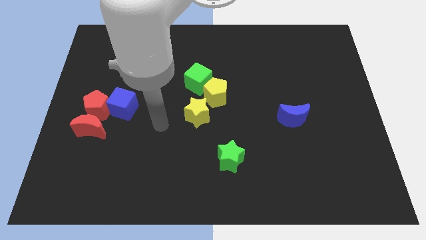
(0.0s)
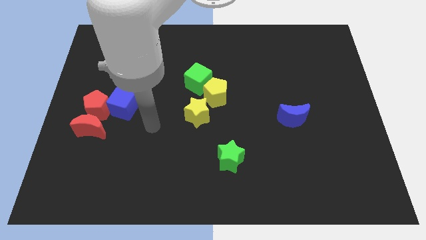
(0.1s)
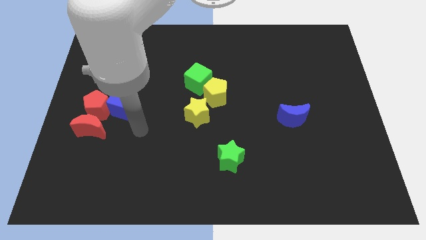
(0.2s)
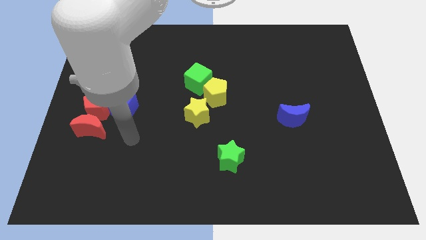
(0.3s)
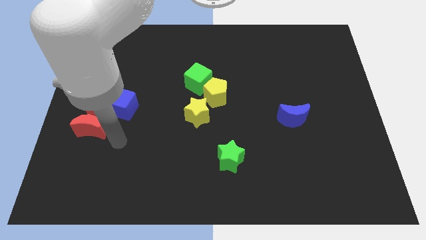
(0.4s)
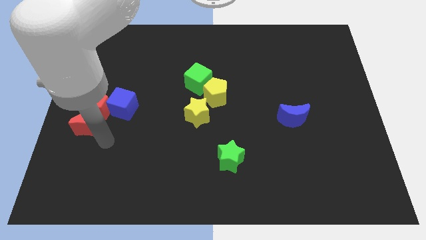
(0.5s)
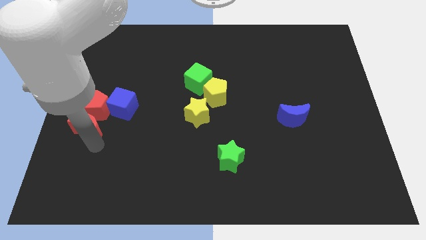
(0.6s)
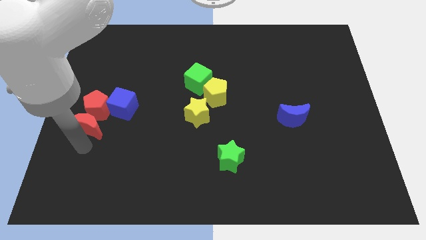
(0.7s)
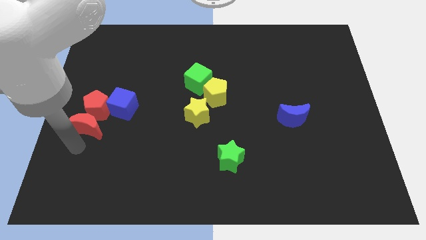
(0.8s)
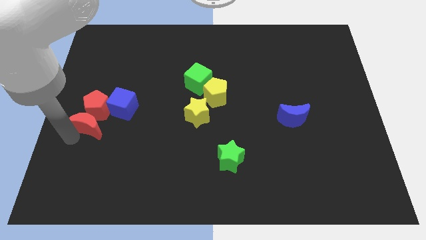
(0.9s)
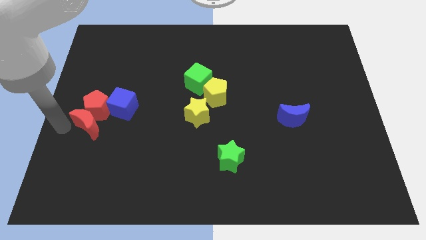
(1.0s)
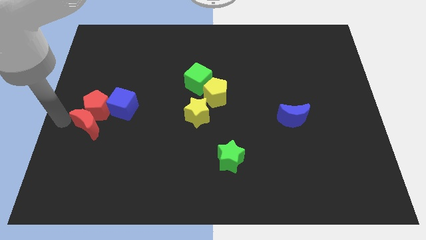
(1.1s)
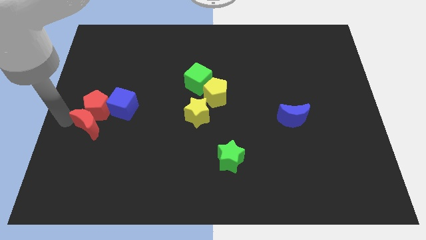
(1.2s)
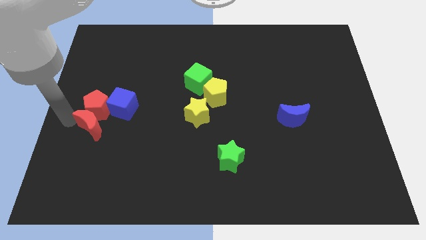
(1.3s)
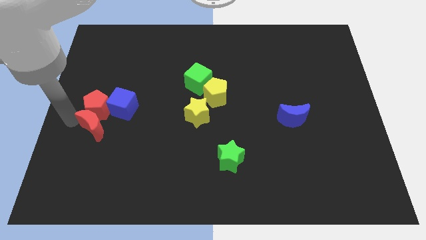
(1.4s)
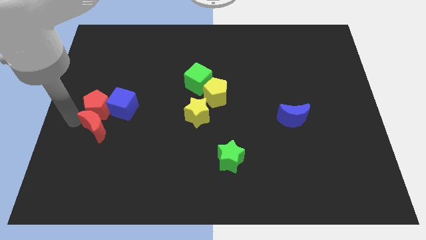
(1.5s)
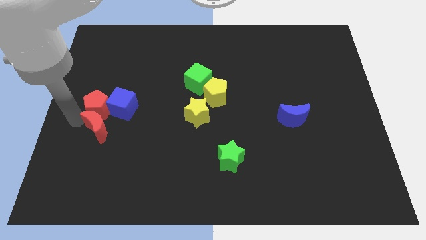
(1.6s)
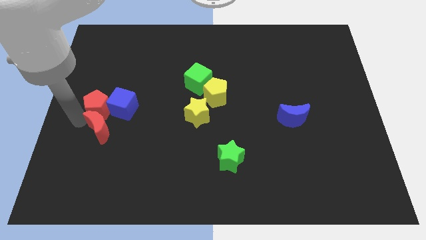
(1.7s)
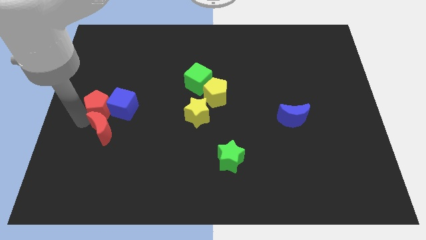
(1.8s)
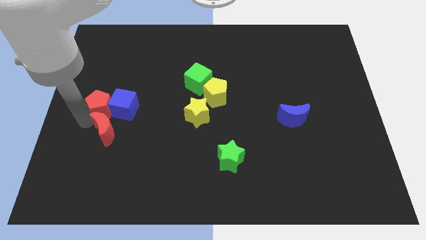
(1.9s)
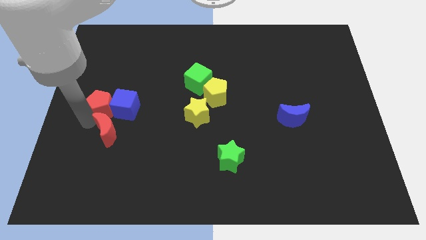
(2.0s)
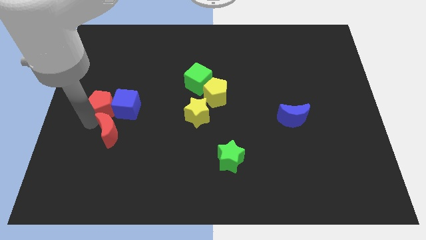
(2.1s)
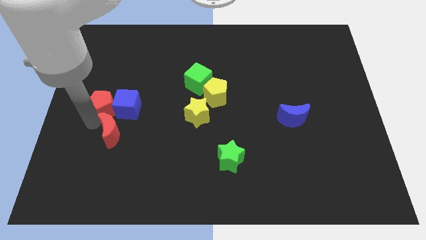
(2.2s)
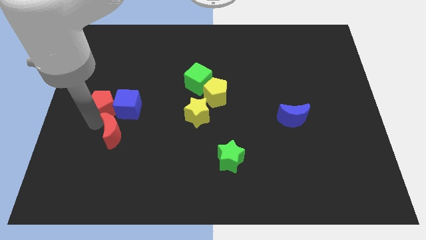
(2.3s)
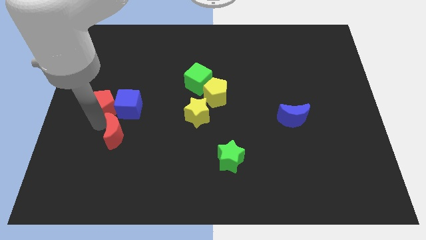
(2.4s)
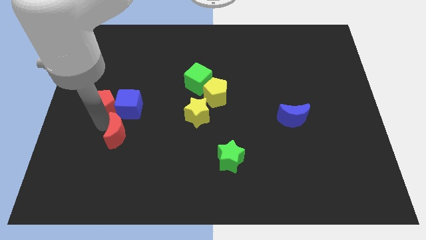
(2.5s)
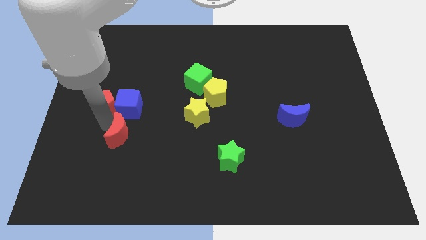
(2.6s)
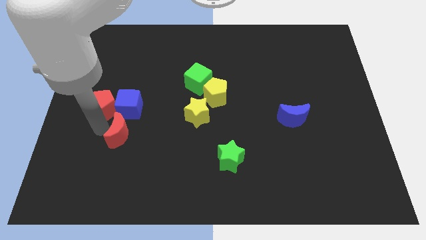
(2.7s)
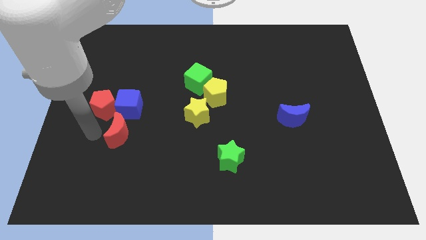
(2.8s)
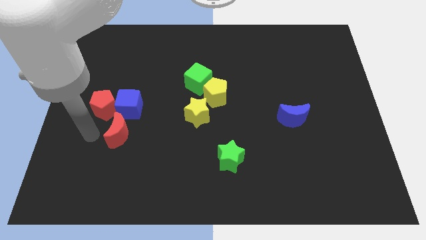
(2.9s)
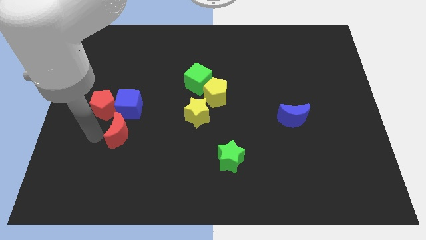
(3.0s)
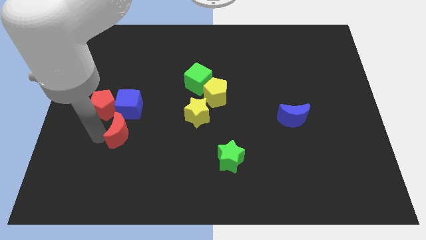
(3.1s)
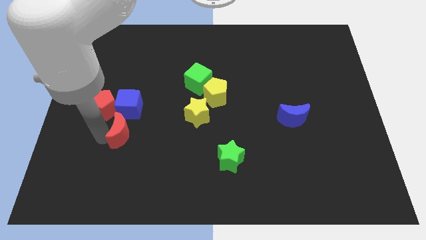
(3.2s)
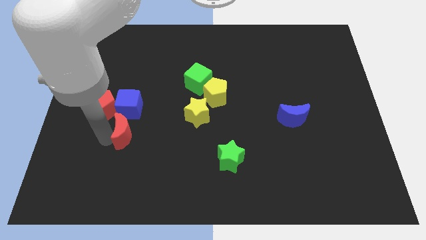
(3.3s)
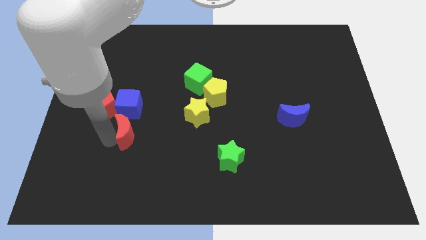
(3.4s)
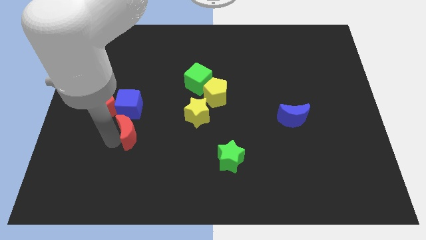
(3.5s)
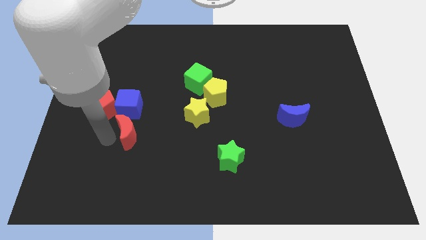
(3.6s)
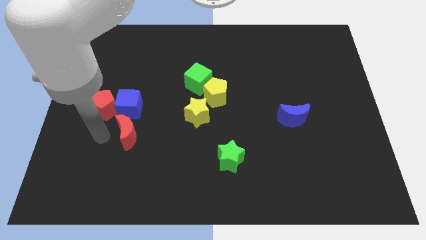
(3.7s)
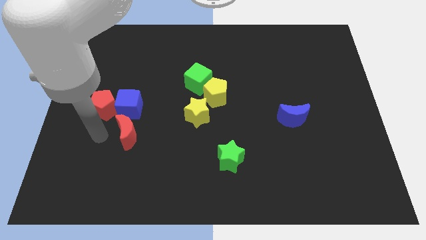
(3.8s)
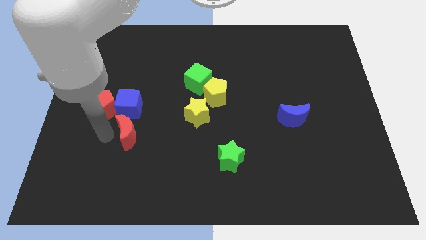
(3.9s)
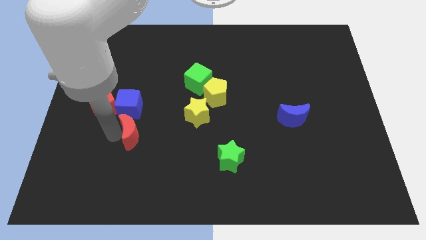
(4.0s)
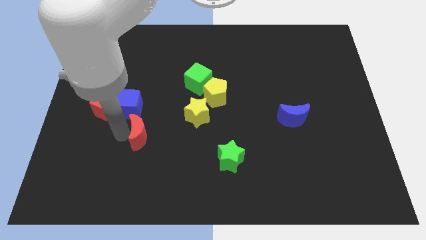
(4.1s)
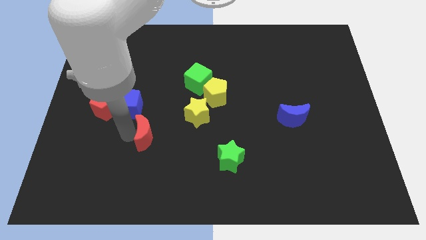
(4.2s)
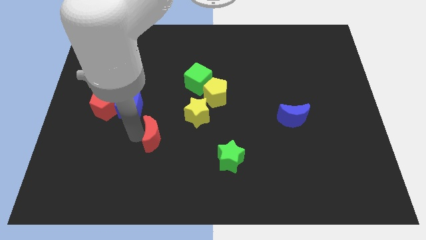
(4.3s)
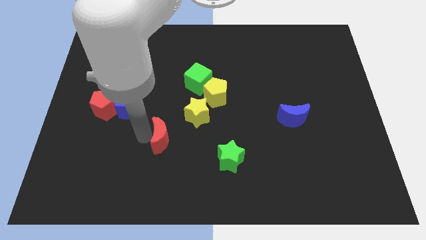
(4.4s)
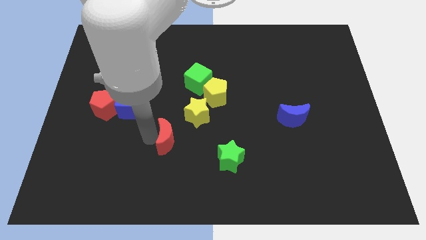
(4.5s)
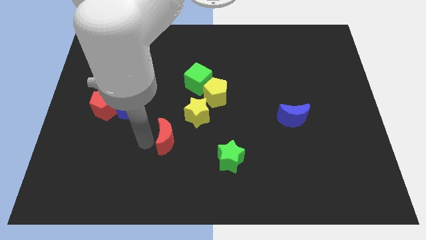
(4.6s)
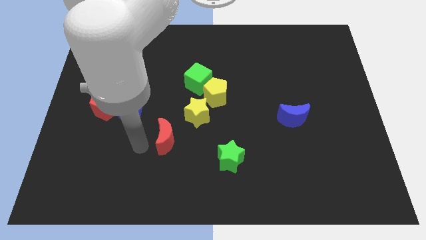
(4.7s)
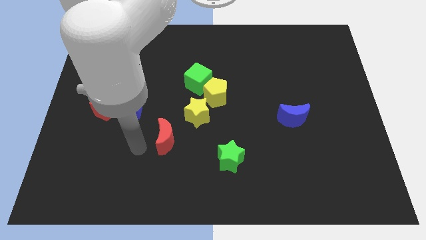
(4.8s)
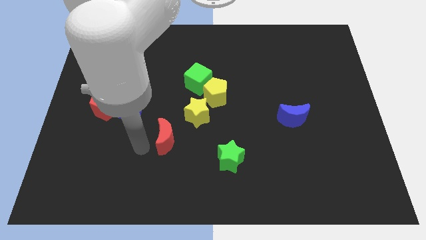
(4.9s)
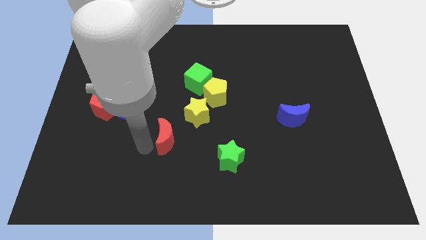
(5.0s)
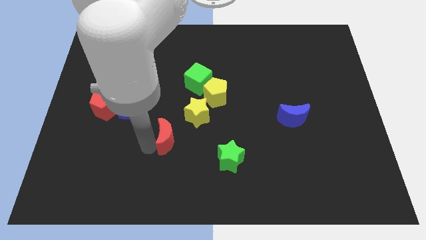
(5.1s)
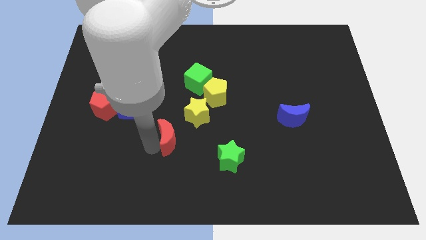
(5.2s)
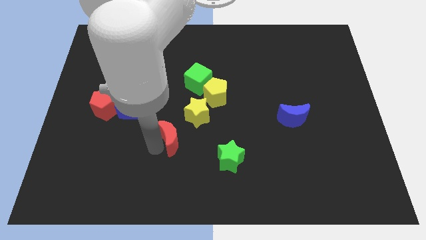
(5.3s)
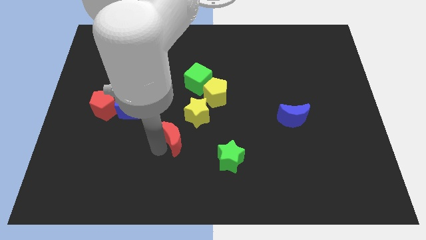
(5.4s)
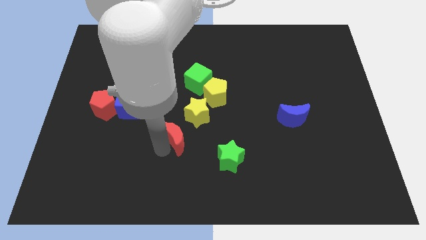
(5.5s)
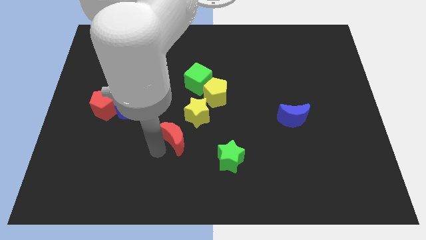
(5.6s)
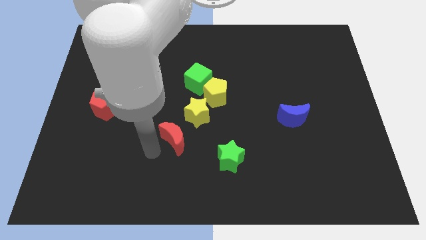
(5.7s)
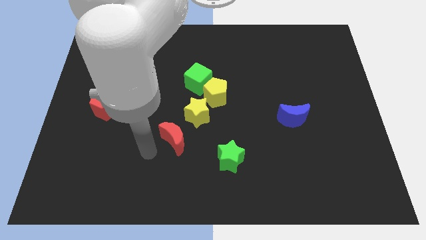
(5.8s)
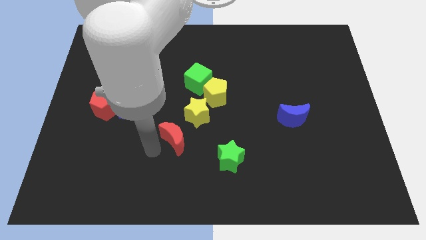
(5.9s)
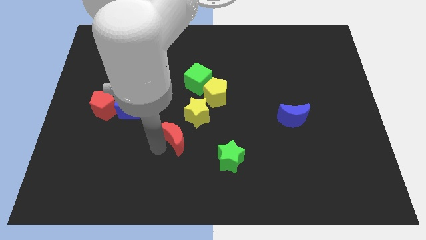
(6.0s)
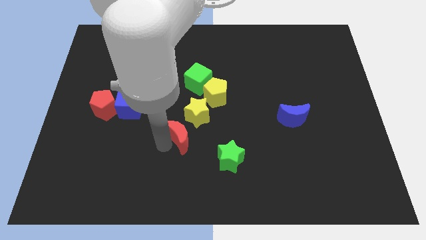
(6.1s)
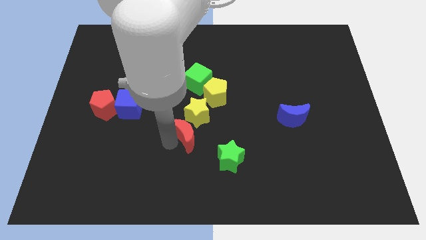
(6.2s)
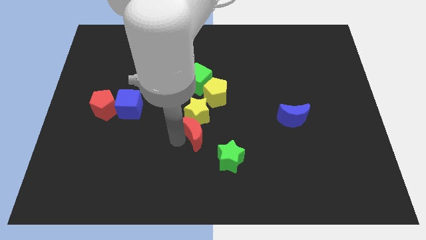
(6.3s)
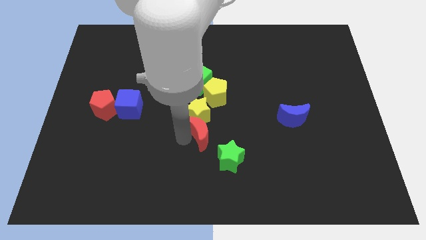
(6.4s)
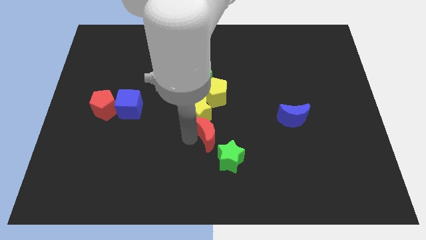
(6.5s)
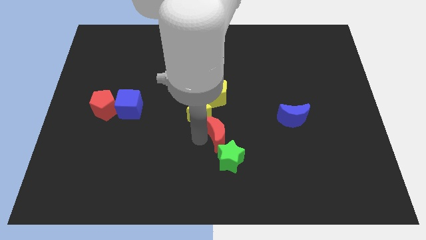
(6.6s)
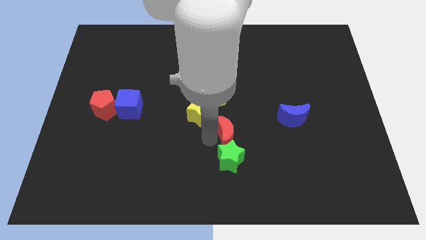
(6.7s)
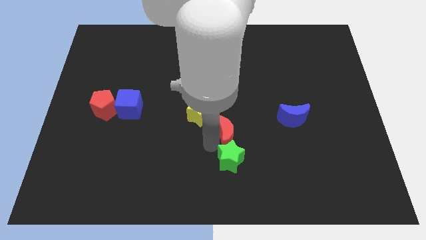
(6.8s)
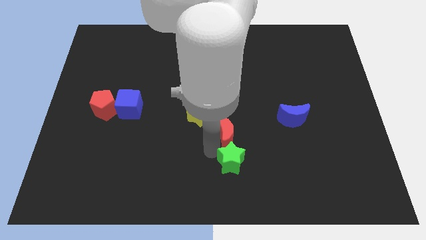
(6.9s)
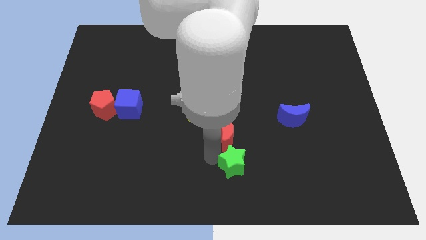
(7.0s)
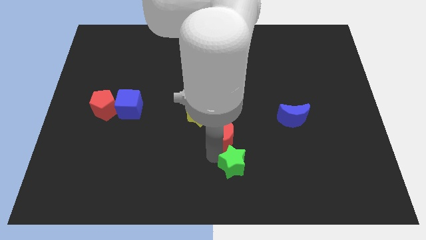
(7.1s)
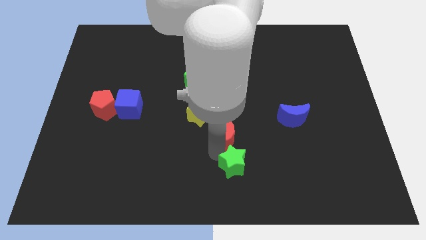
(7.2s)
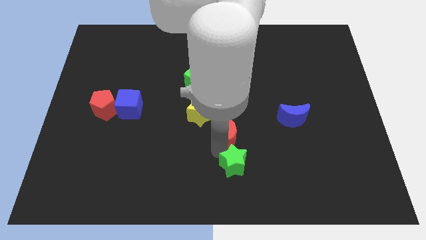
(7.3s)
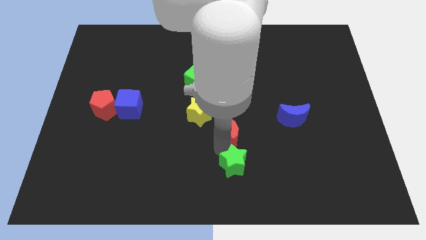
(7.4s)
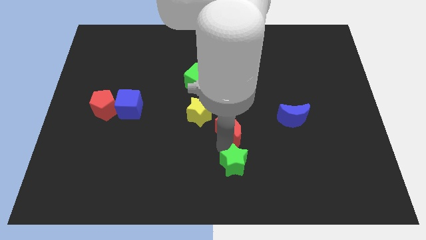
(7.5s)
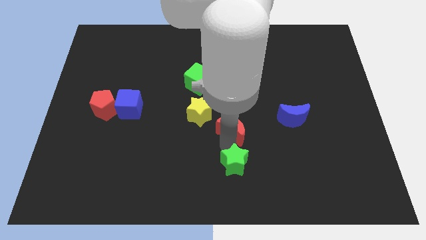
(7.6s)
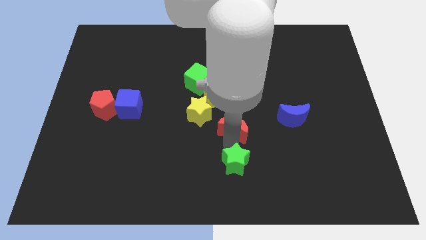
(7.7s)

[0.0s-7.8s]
push the red moon to the bottom right of the yellow pentagon
